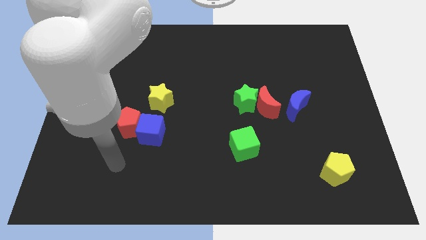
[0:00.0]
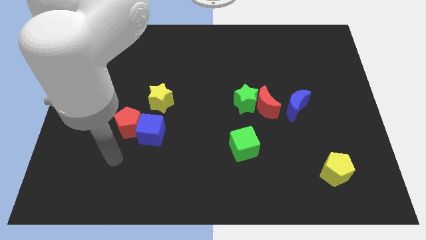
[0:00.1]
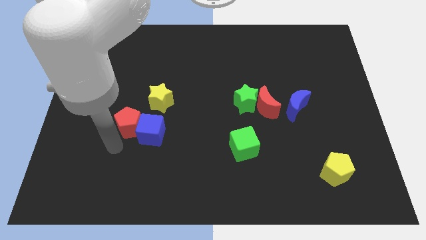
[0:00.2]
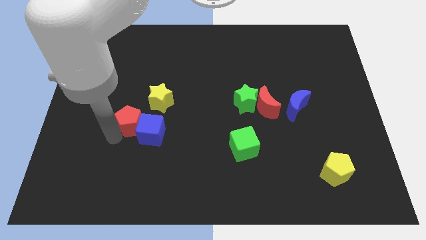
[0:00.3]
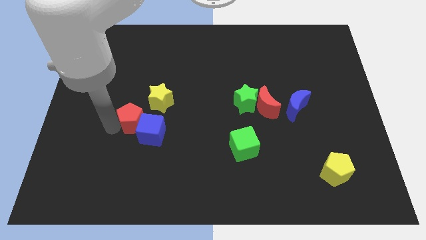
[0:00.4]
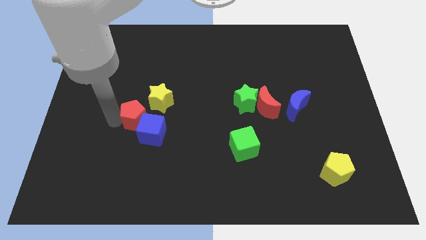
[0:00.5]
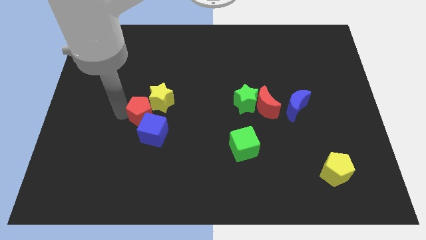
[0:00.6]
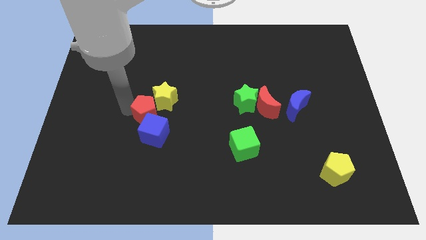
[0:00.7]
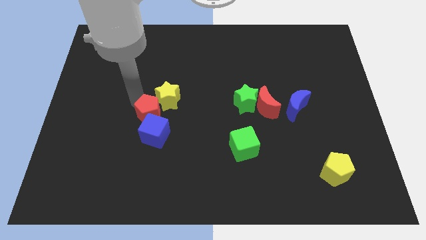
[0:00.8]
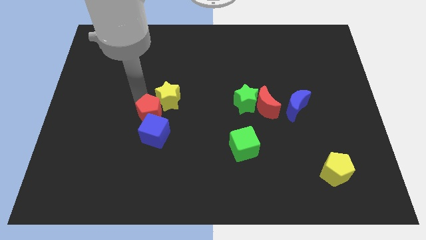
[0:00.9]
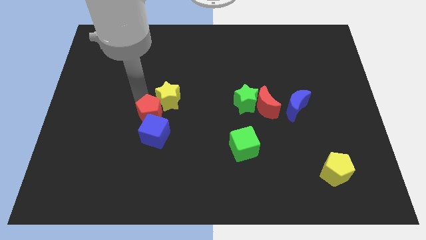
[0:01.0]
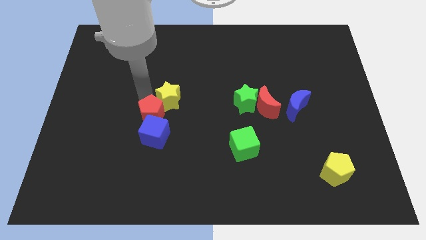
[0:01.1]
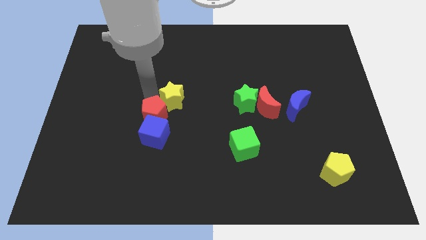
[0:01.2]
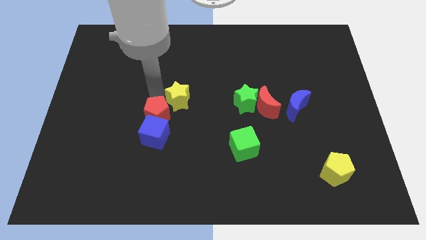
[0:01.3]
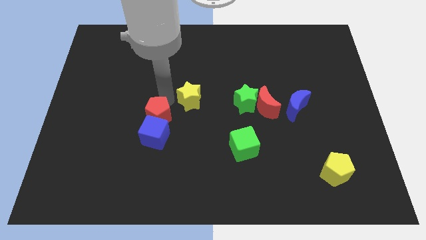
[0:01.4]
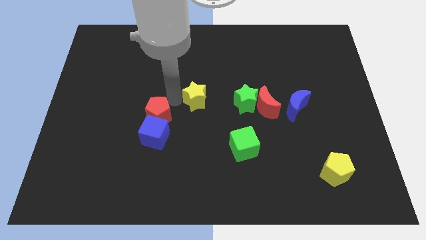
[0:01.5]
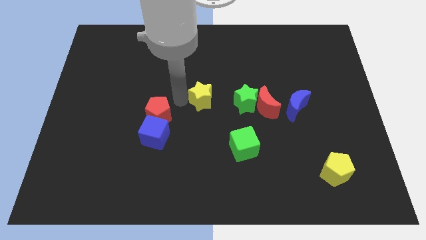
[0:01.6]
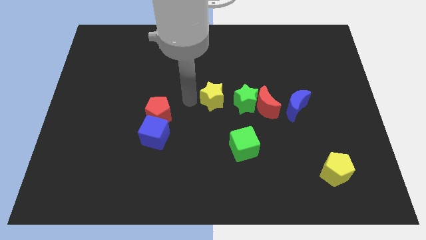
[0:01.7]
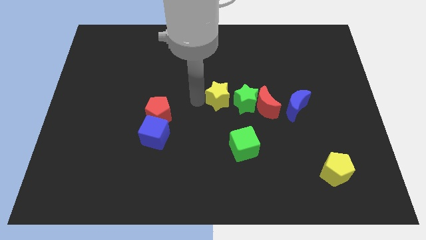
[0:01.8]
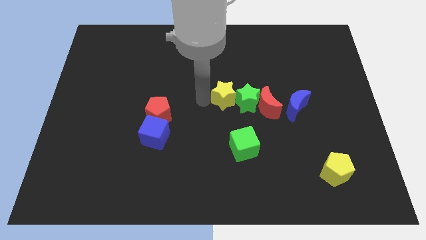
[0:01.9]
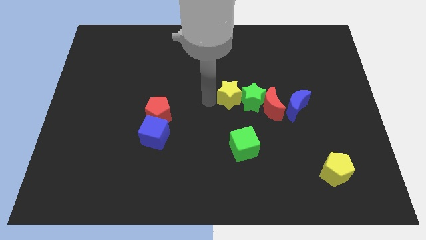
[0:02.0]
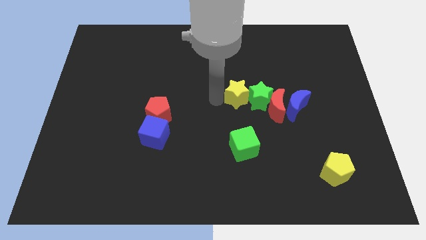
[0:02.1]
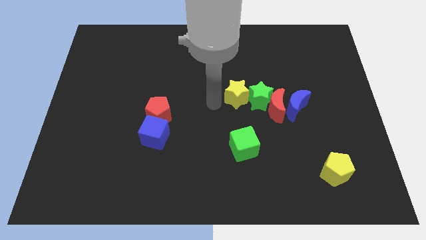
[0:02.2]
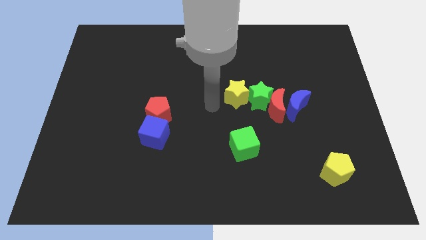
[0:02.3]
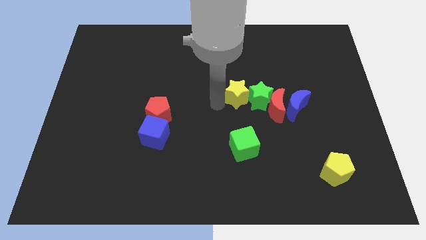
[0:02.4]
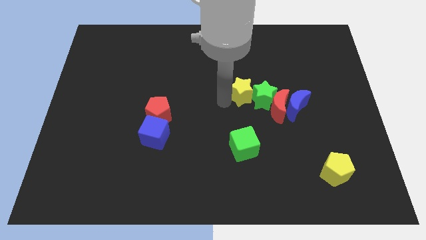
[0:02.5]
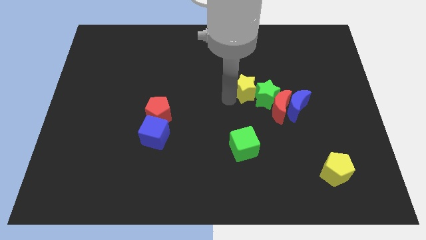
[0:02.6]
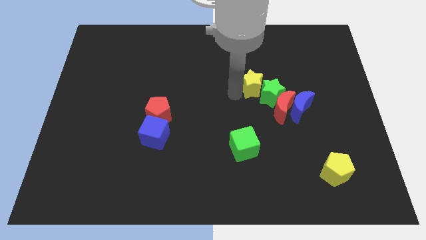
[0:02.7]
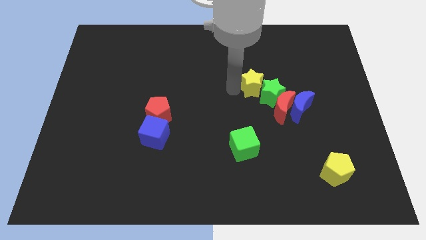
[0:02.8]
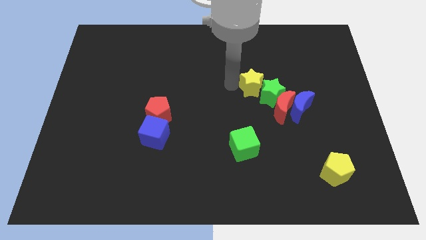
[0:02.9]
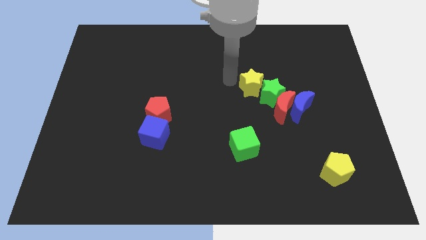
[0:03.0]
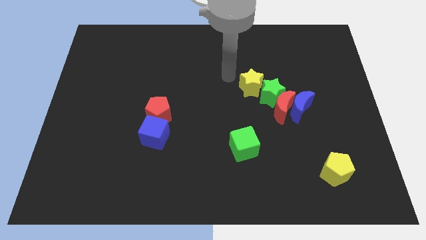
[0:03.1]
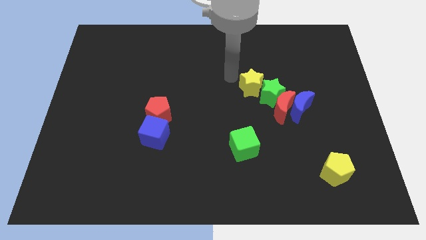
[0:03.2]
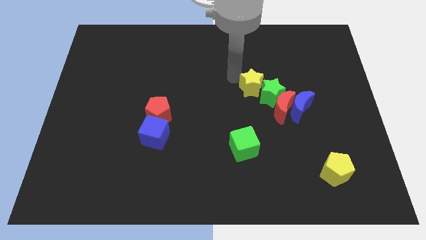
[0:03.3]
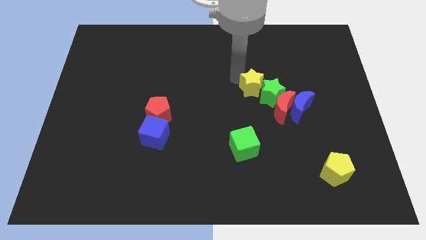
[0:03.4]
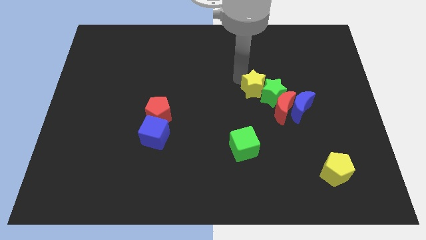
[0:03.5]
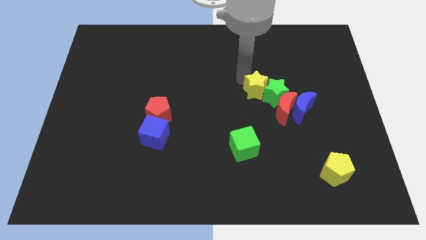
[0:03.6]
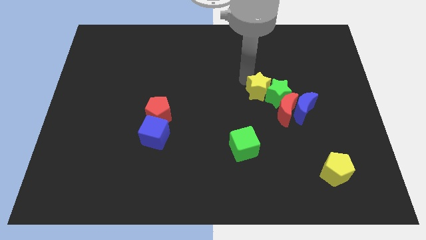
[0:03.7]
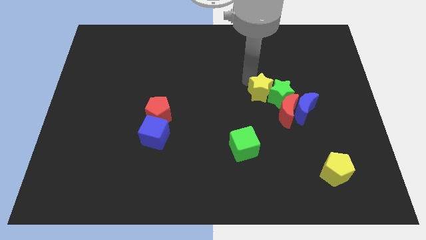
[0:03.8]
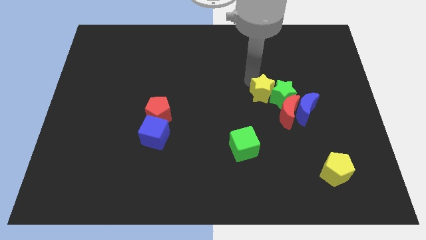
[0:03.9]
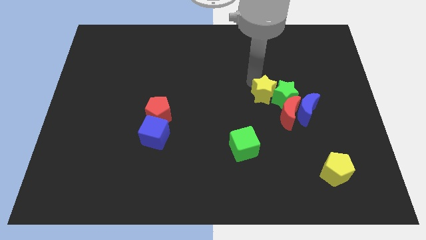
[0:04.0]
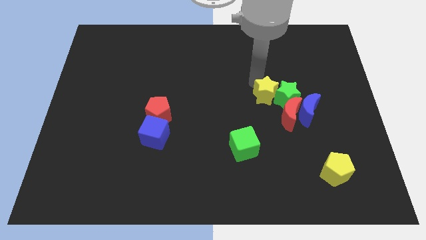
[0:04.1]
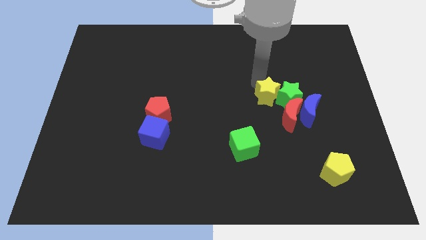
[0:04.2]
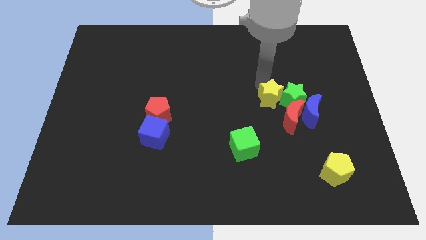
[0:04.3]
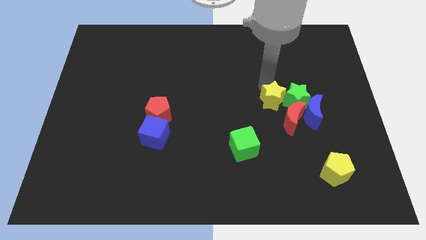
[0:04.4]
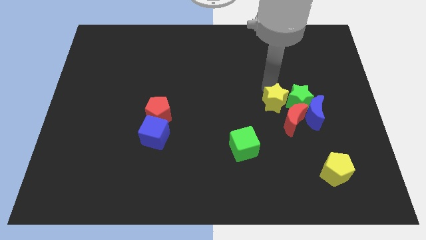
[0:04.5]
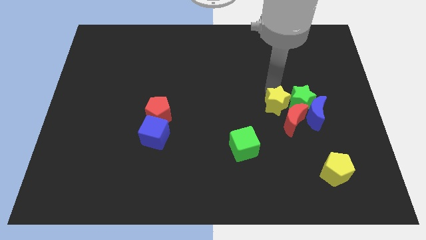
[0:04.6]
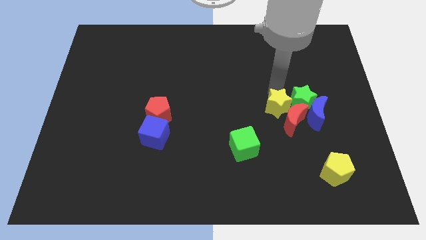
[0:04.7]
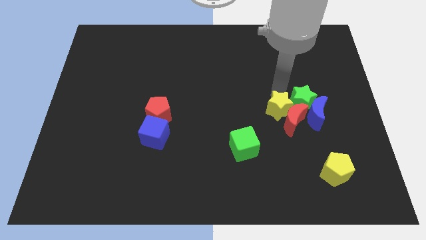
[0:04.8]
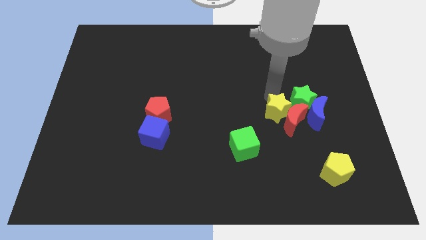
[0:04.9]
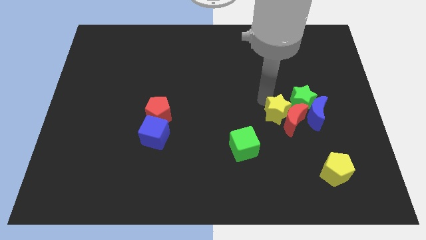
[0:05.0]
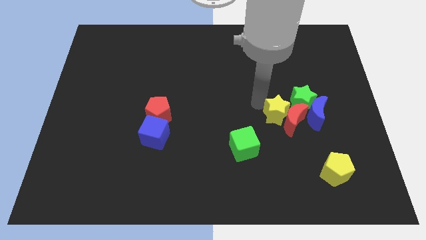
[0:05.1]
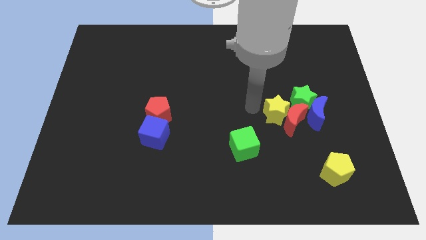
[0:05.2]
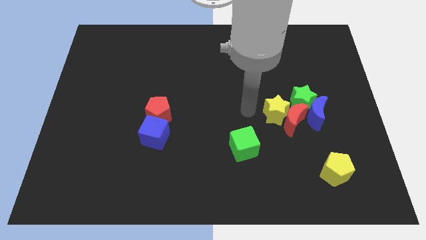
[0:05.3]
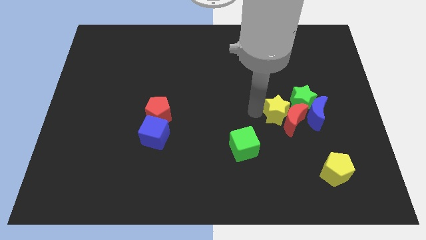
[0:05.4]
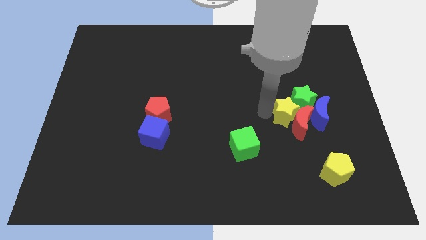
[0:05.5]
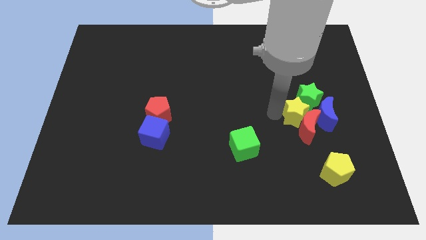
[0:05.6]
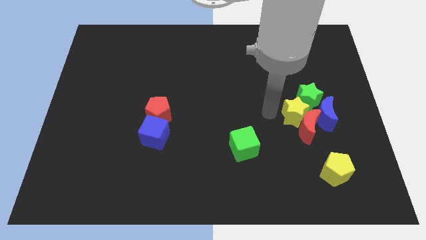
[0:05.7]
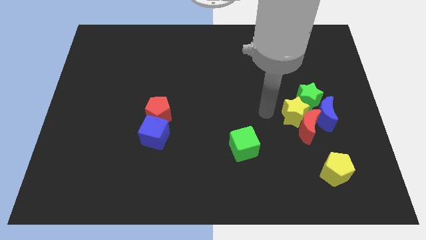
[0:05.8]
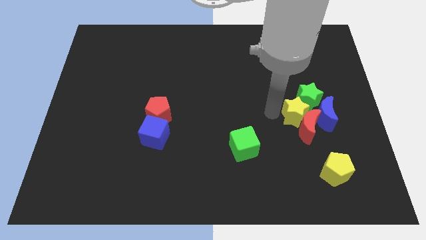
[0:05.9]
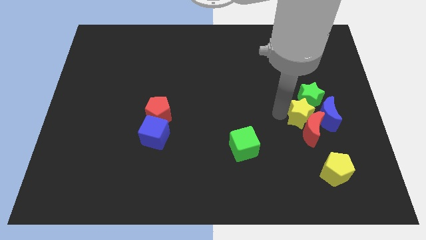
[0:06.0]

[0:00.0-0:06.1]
push the yellow star to the blue moon

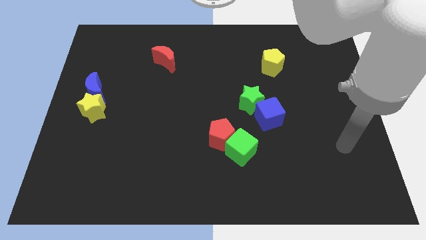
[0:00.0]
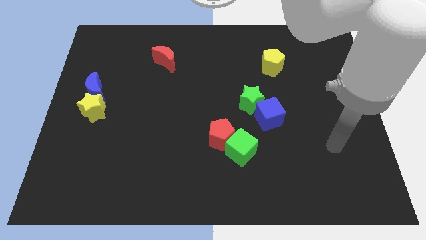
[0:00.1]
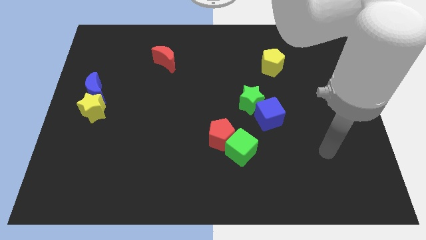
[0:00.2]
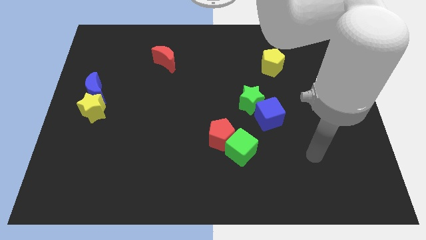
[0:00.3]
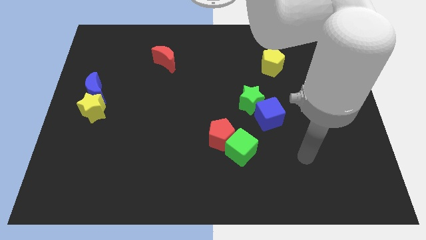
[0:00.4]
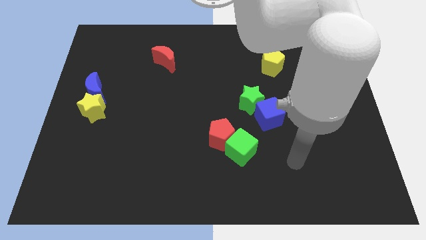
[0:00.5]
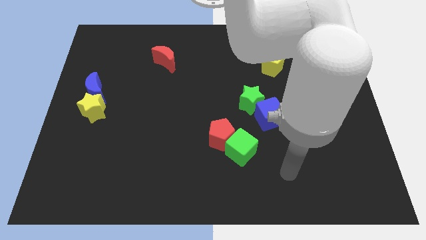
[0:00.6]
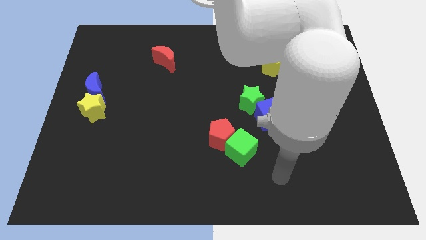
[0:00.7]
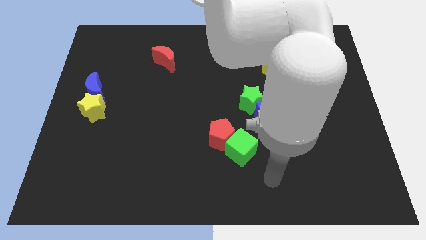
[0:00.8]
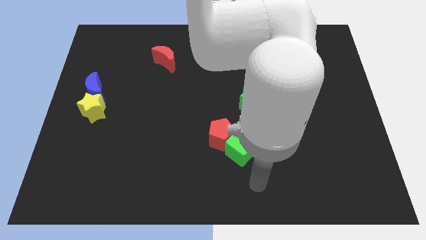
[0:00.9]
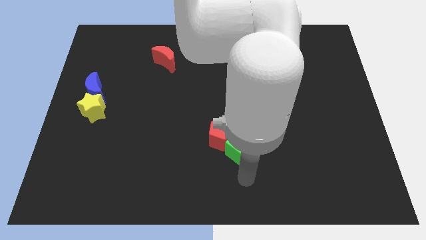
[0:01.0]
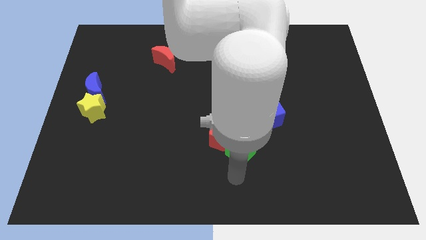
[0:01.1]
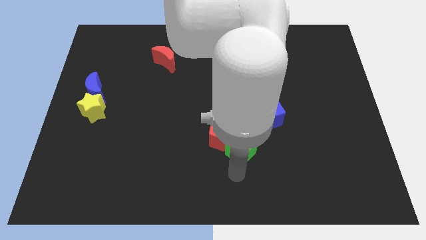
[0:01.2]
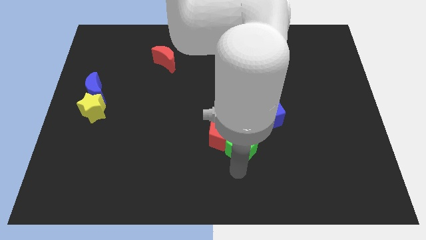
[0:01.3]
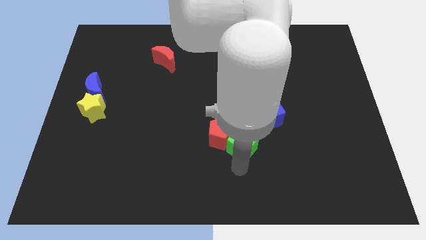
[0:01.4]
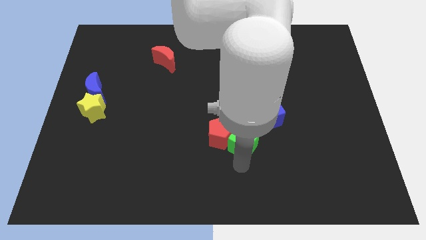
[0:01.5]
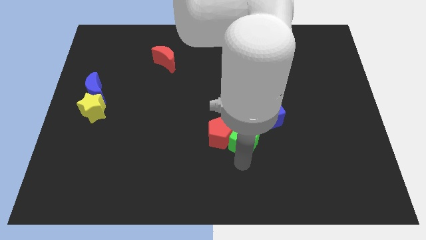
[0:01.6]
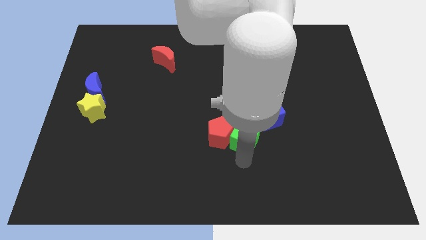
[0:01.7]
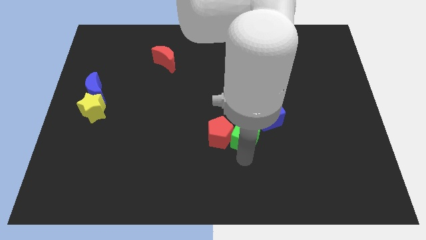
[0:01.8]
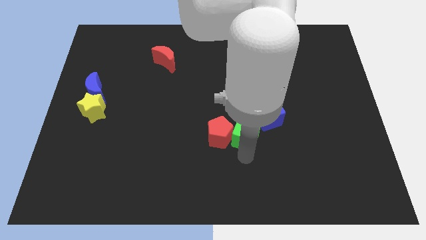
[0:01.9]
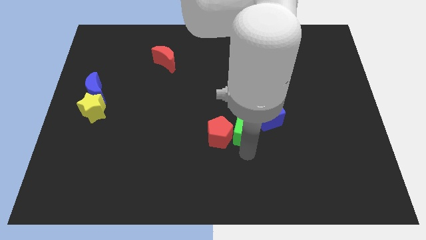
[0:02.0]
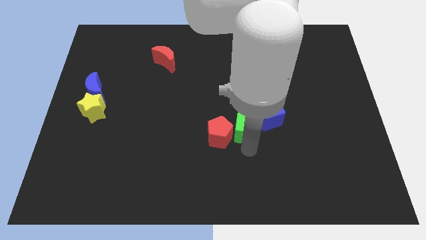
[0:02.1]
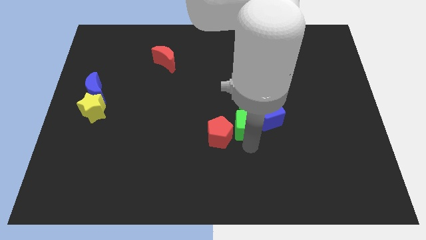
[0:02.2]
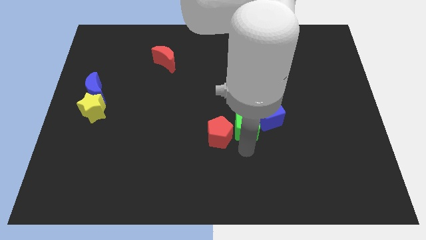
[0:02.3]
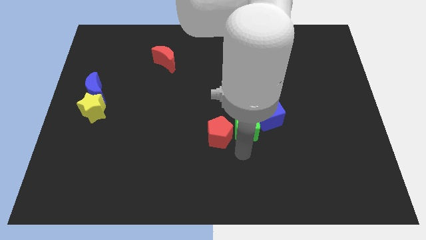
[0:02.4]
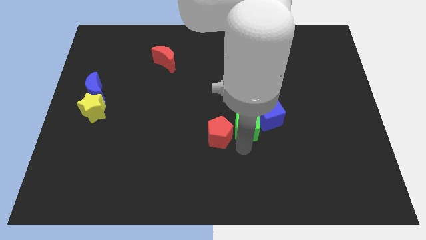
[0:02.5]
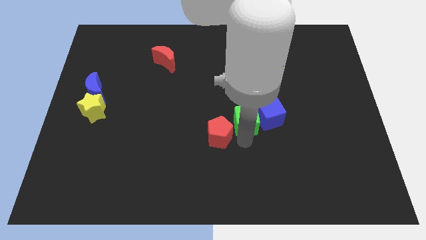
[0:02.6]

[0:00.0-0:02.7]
move the green cube next to the green star
